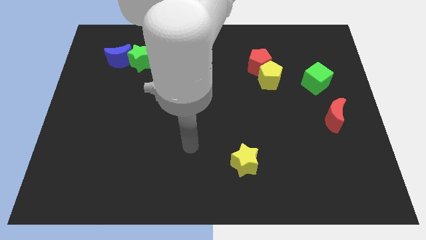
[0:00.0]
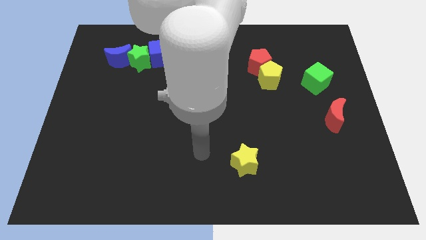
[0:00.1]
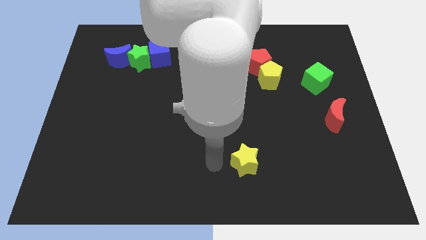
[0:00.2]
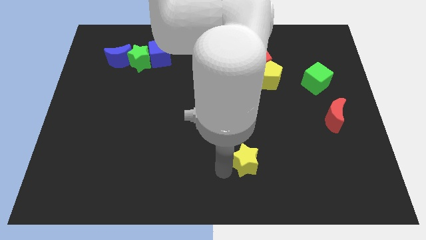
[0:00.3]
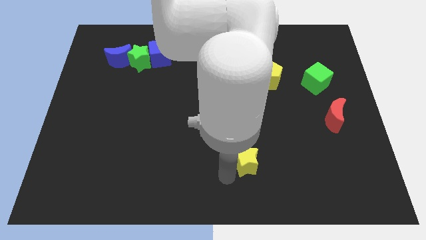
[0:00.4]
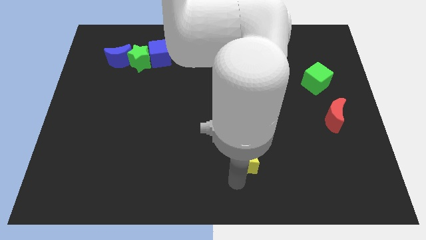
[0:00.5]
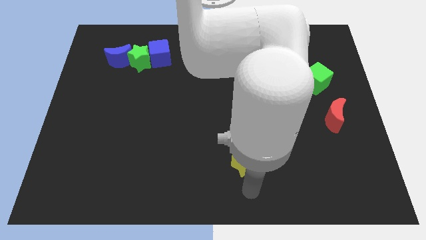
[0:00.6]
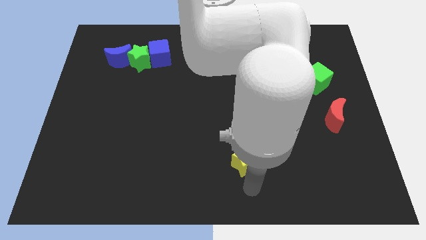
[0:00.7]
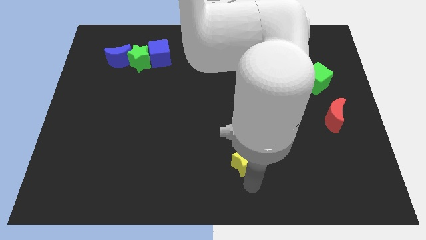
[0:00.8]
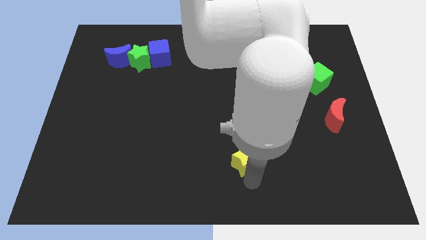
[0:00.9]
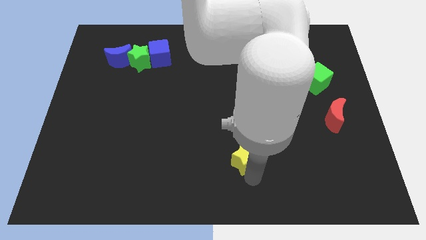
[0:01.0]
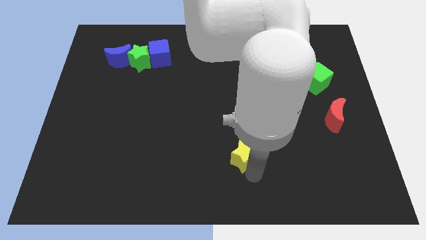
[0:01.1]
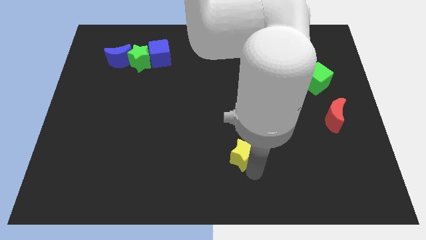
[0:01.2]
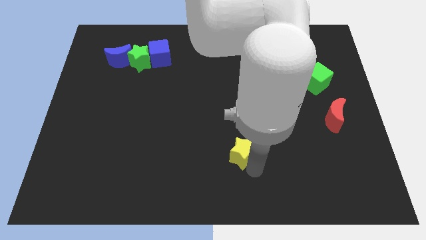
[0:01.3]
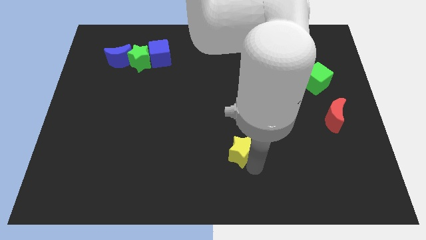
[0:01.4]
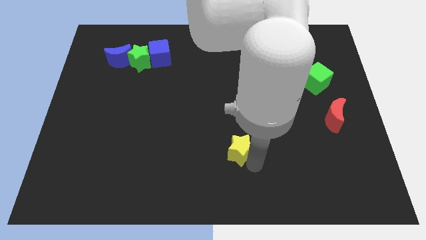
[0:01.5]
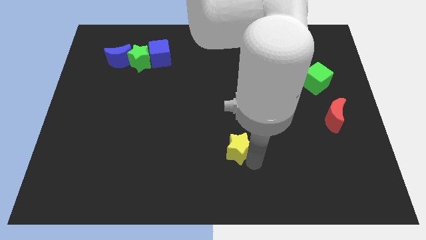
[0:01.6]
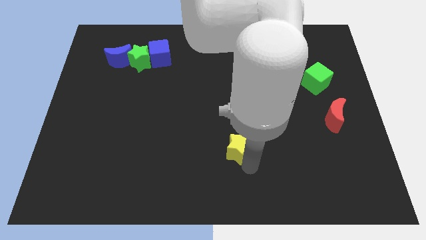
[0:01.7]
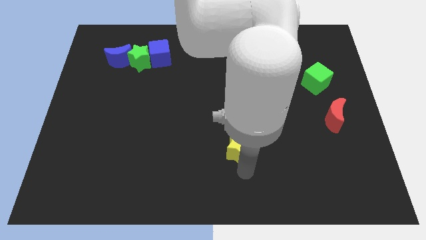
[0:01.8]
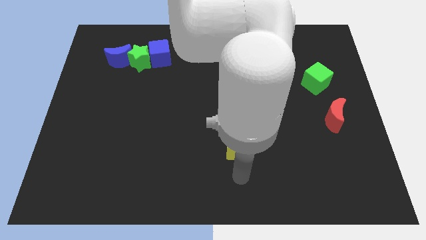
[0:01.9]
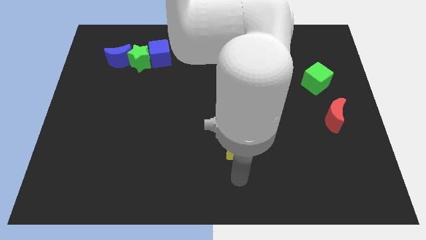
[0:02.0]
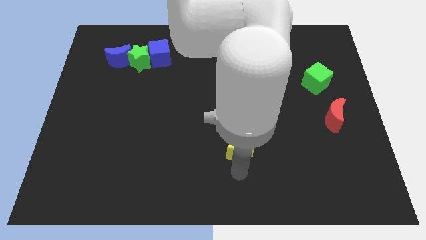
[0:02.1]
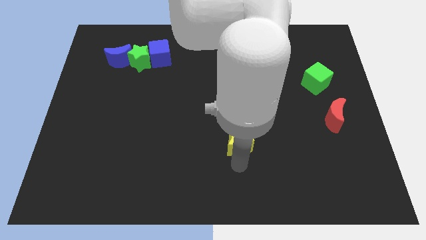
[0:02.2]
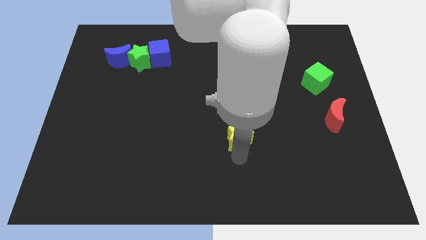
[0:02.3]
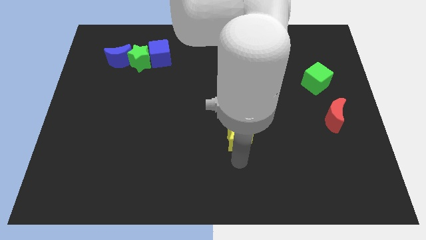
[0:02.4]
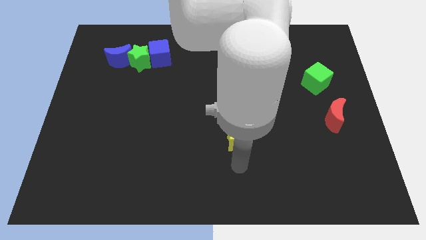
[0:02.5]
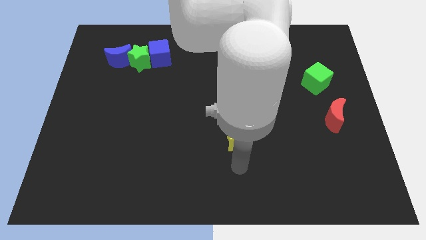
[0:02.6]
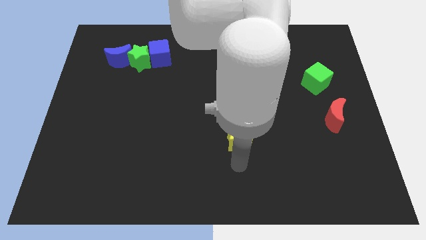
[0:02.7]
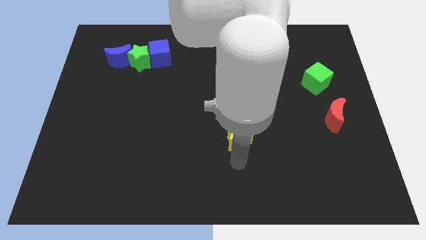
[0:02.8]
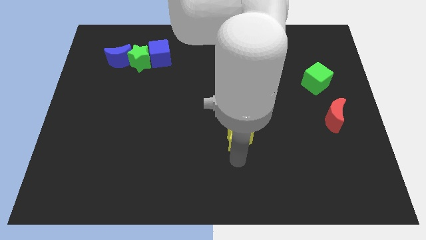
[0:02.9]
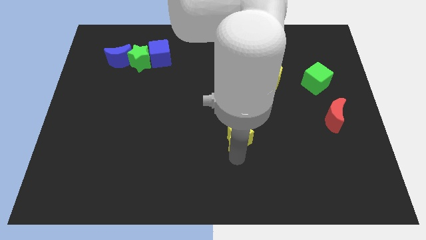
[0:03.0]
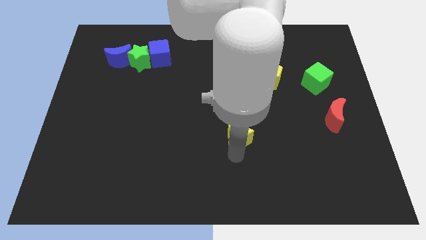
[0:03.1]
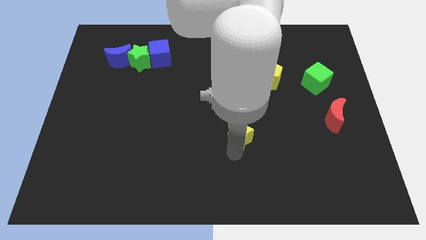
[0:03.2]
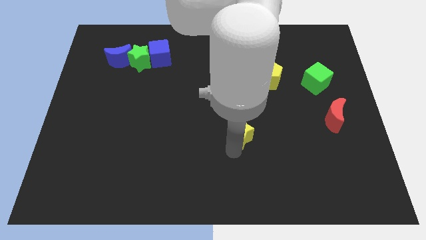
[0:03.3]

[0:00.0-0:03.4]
move the yellow star a bit upwards

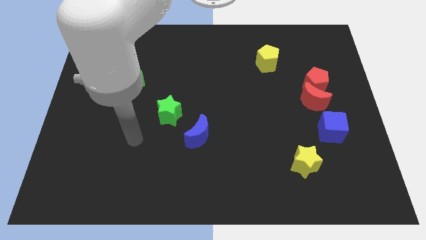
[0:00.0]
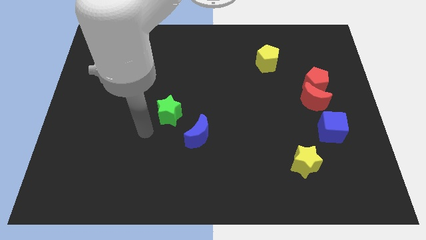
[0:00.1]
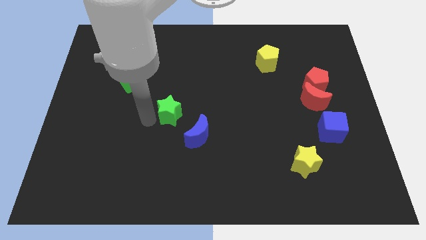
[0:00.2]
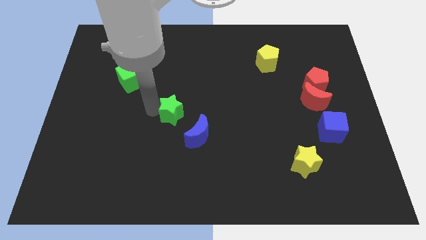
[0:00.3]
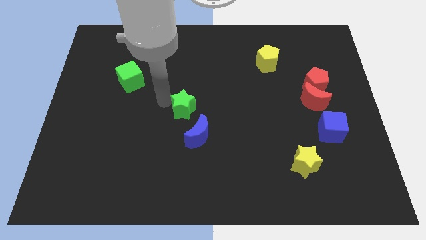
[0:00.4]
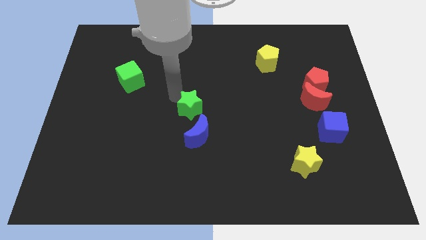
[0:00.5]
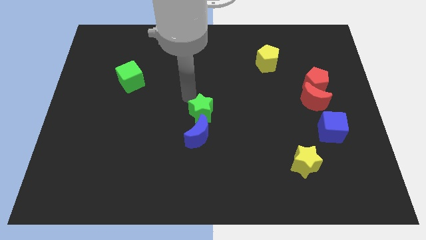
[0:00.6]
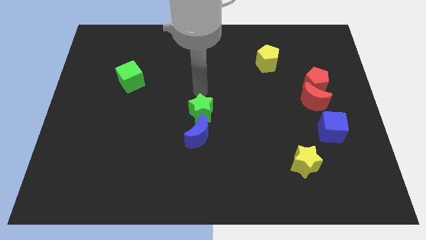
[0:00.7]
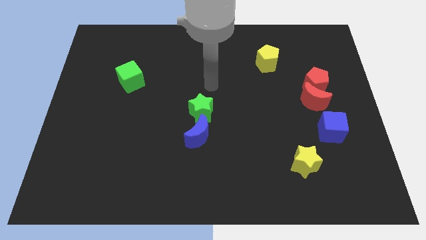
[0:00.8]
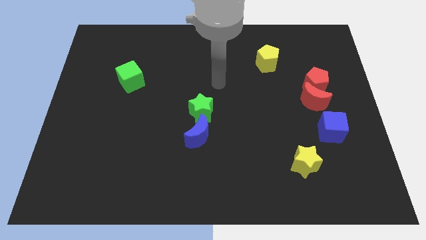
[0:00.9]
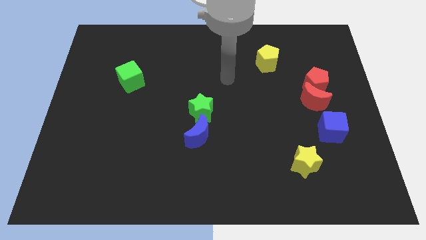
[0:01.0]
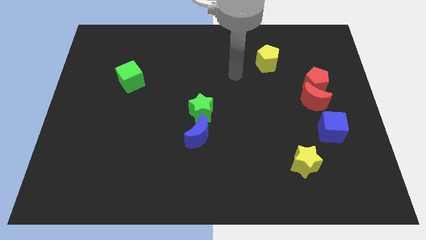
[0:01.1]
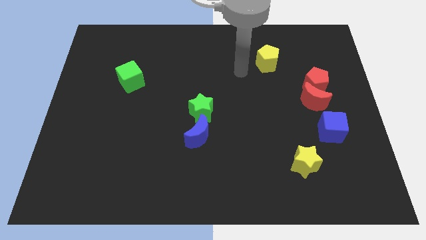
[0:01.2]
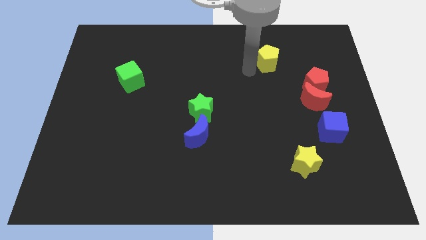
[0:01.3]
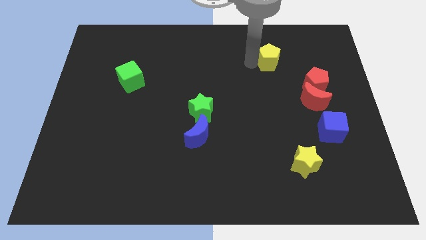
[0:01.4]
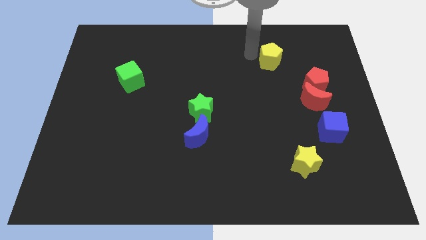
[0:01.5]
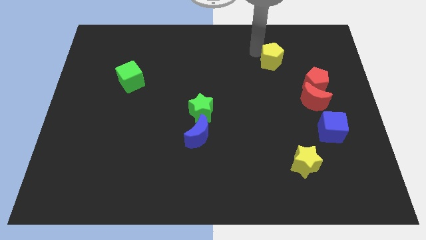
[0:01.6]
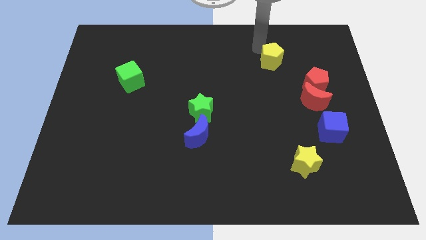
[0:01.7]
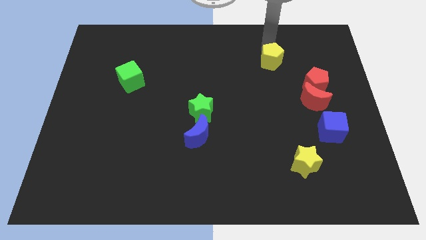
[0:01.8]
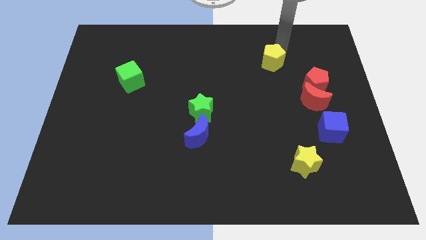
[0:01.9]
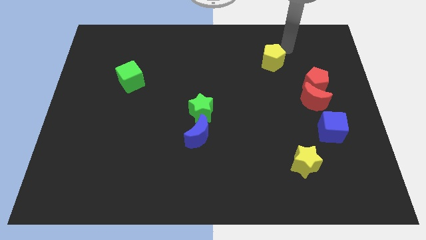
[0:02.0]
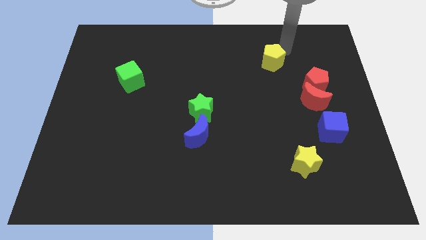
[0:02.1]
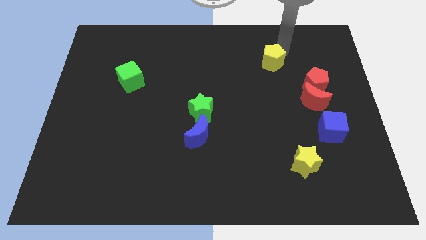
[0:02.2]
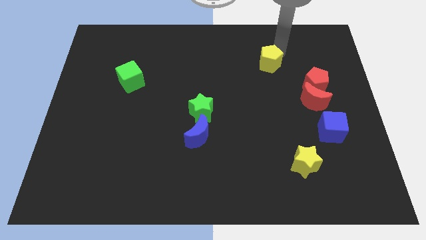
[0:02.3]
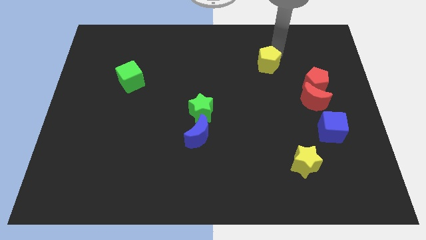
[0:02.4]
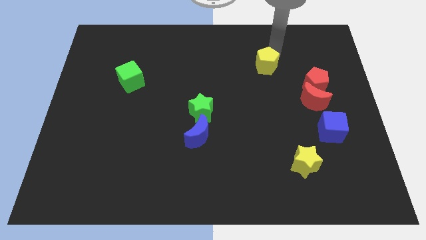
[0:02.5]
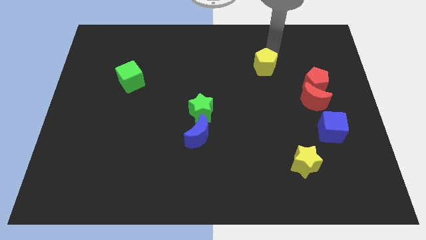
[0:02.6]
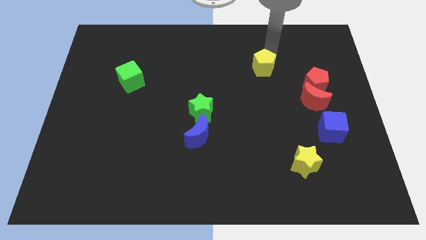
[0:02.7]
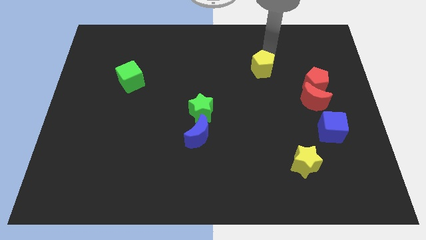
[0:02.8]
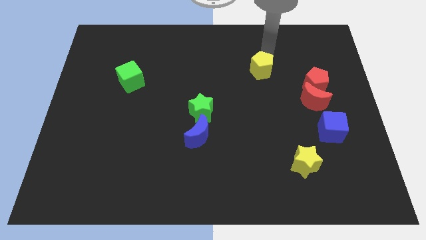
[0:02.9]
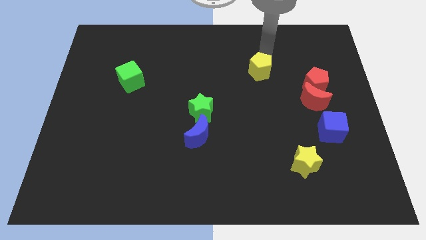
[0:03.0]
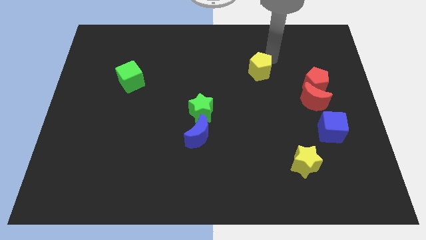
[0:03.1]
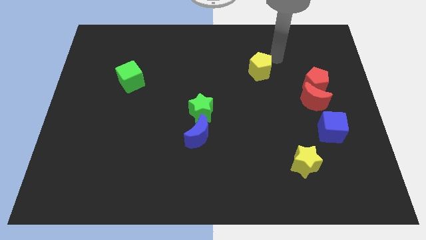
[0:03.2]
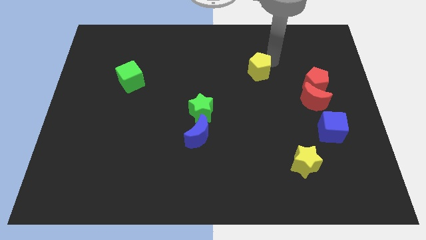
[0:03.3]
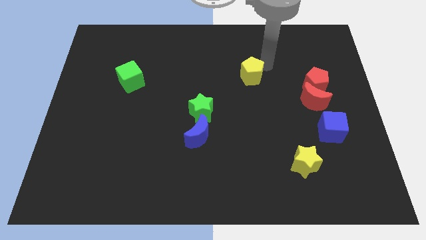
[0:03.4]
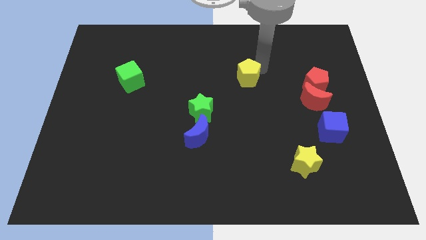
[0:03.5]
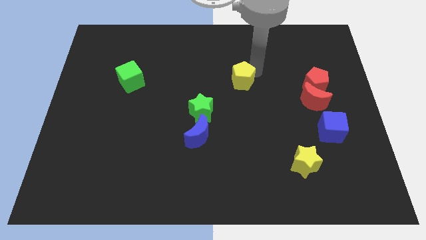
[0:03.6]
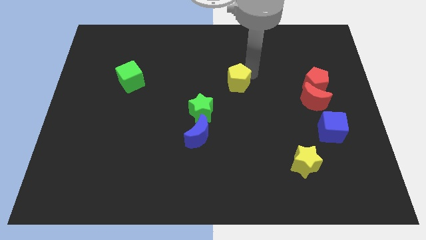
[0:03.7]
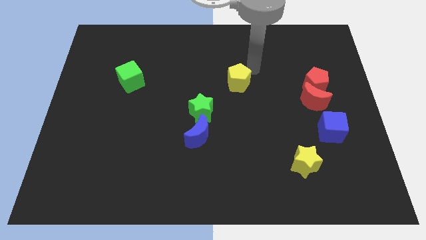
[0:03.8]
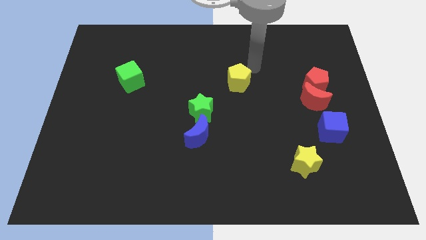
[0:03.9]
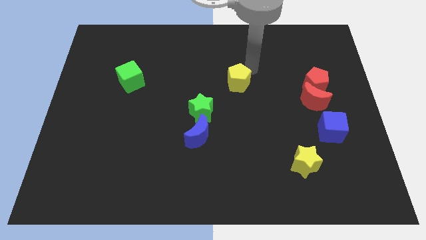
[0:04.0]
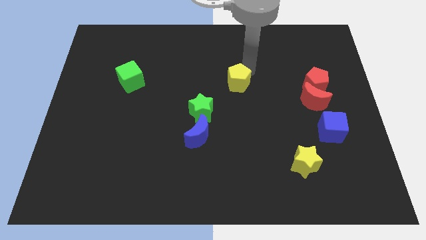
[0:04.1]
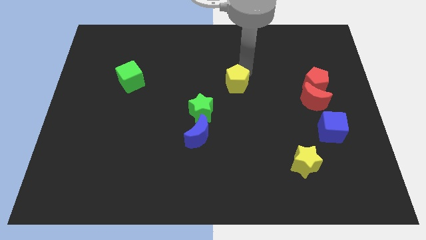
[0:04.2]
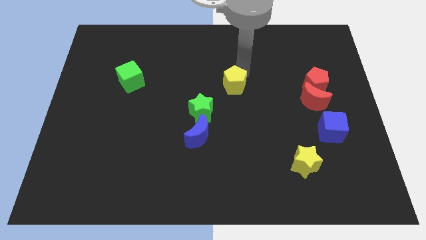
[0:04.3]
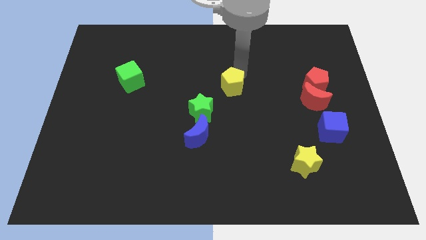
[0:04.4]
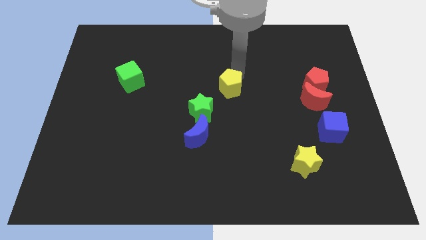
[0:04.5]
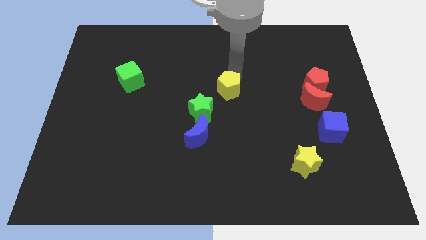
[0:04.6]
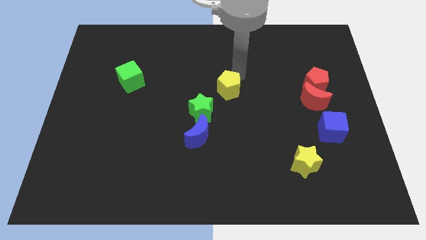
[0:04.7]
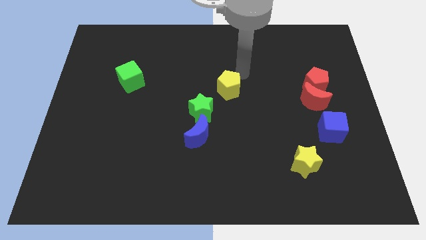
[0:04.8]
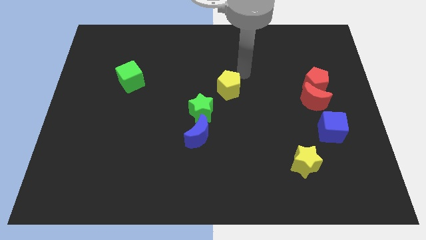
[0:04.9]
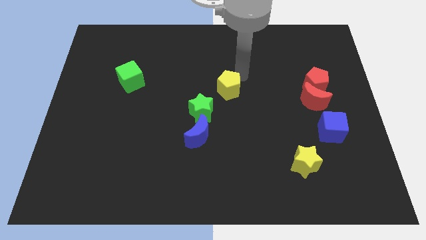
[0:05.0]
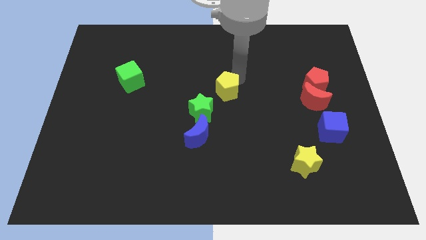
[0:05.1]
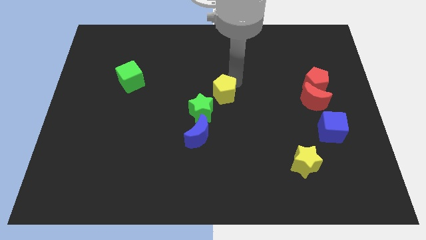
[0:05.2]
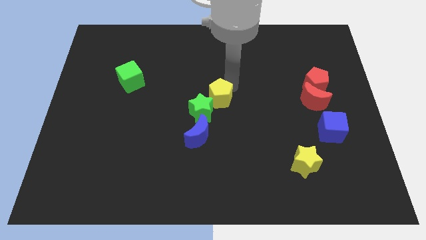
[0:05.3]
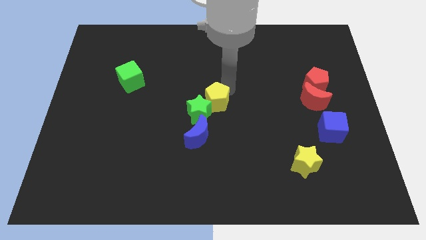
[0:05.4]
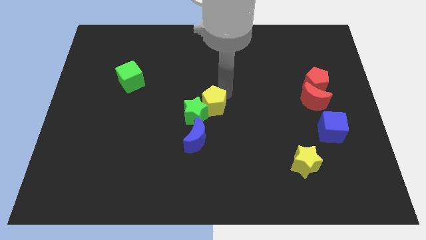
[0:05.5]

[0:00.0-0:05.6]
push the yellow pentagon downwards and left
